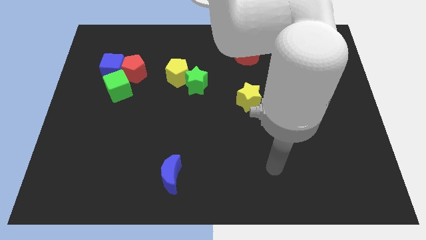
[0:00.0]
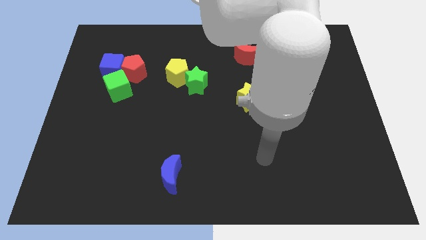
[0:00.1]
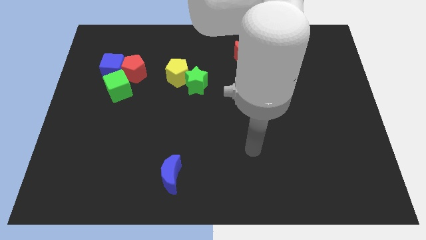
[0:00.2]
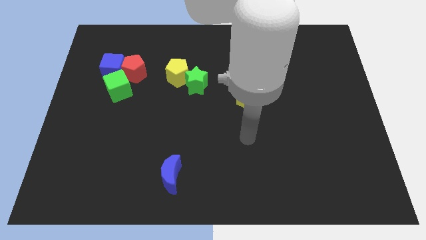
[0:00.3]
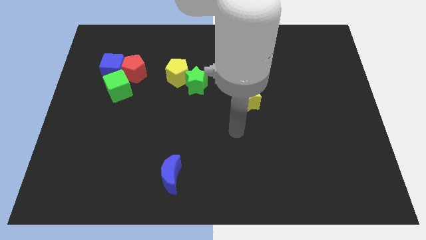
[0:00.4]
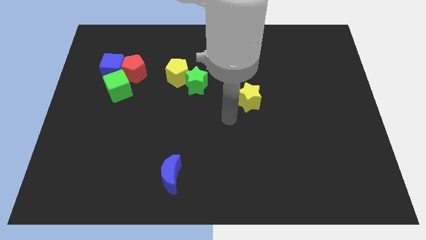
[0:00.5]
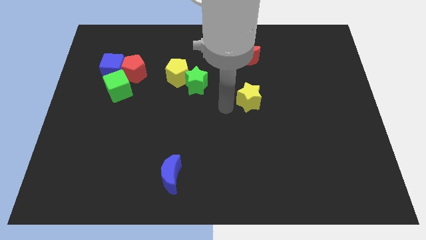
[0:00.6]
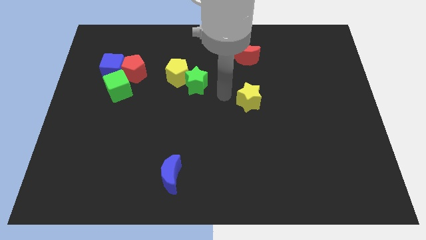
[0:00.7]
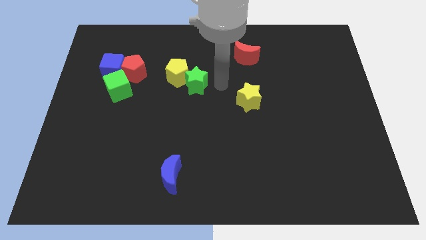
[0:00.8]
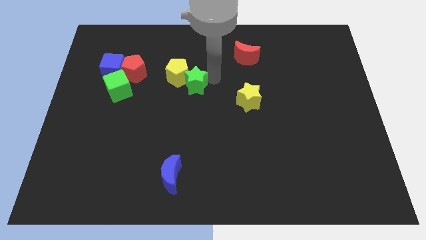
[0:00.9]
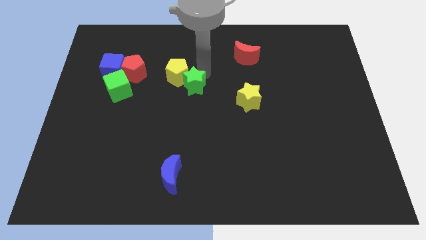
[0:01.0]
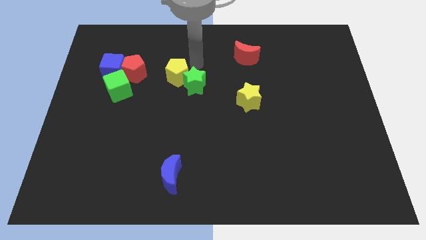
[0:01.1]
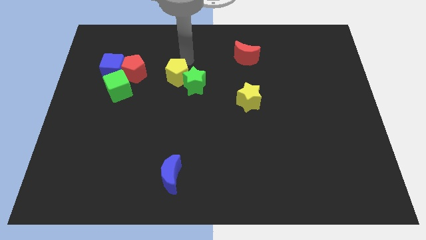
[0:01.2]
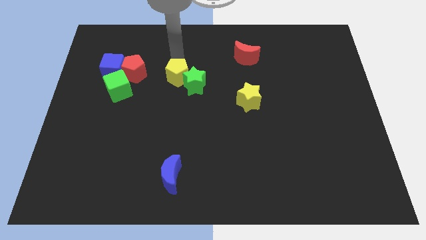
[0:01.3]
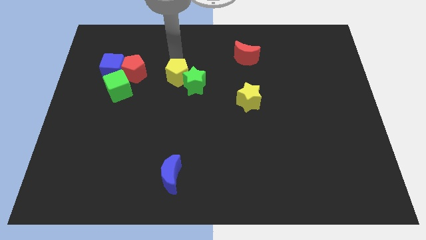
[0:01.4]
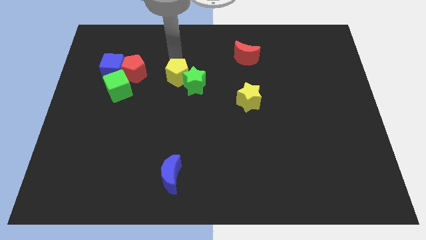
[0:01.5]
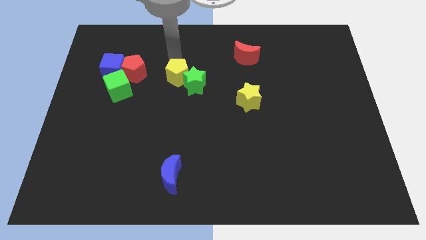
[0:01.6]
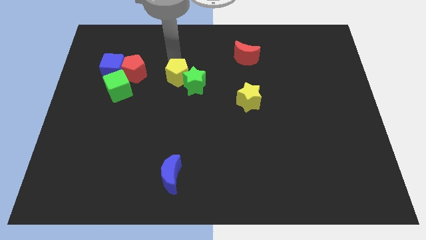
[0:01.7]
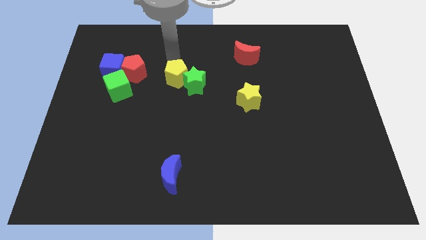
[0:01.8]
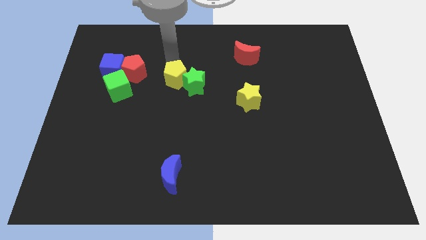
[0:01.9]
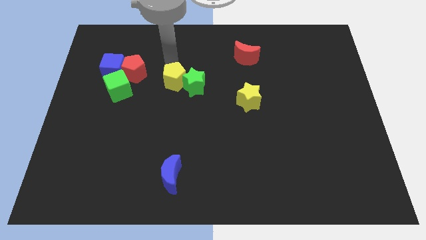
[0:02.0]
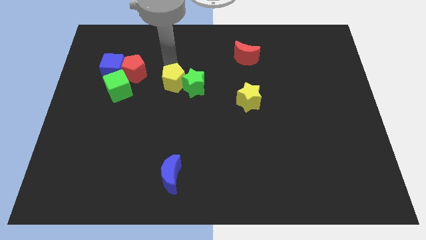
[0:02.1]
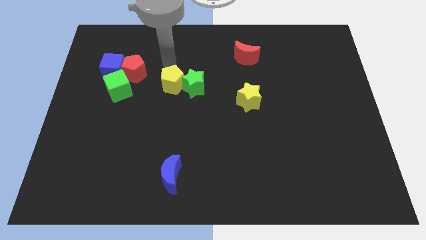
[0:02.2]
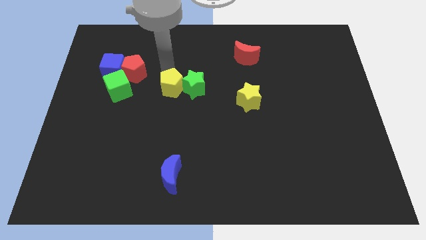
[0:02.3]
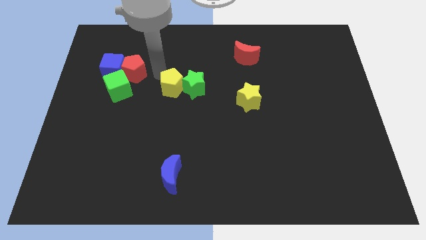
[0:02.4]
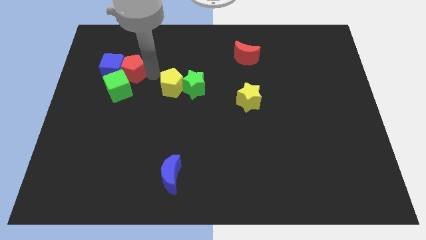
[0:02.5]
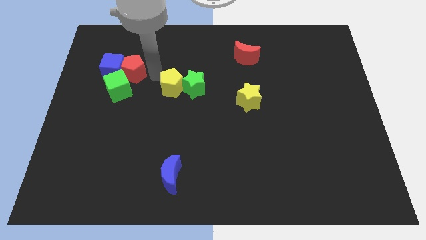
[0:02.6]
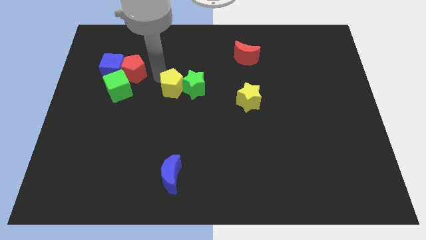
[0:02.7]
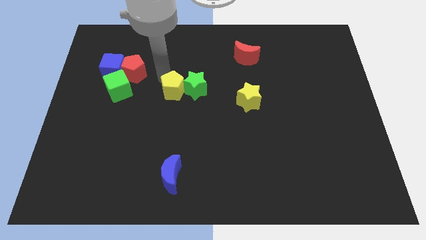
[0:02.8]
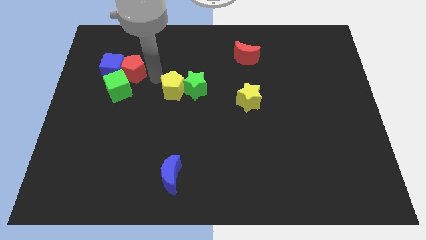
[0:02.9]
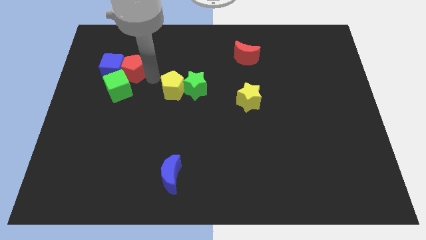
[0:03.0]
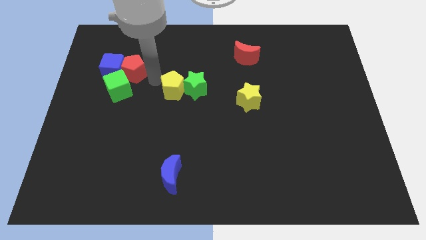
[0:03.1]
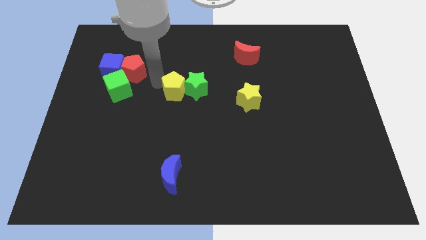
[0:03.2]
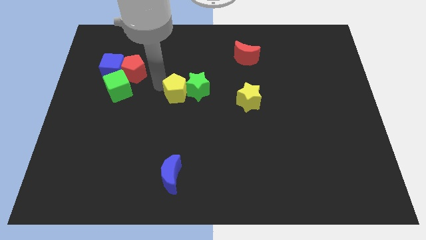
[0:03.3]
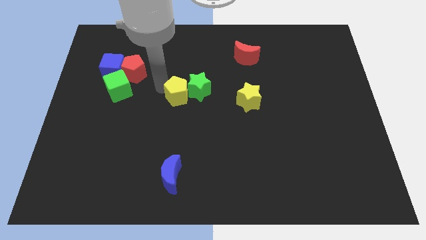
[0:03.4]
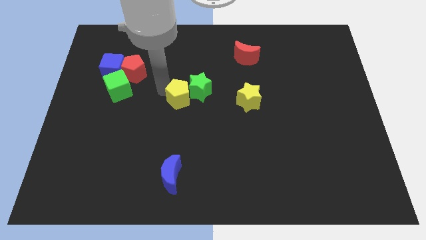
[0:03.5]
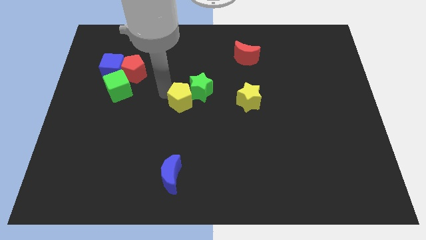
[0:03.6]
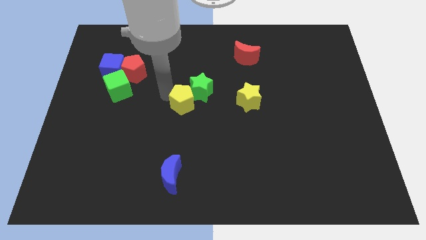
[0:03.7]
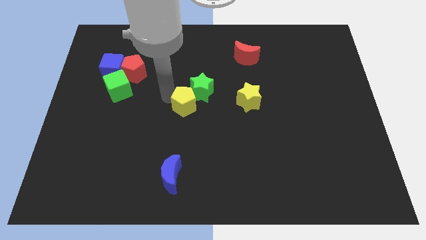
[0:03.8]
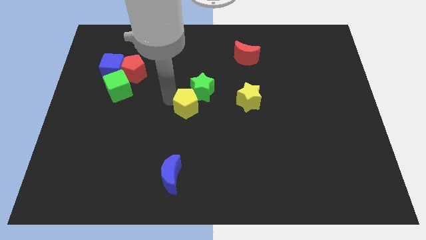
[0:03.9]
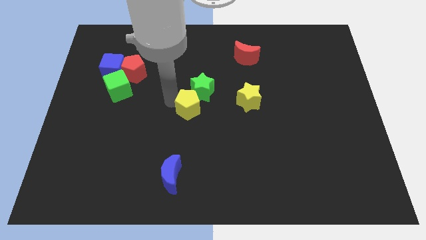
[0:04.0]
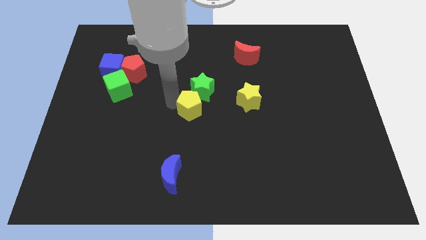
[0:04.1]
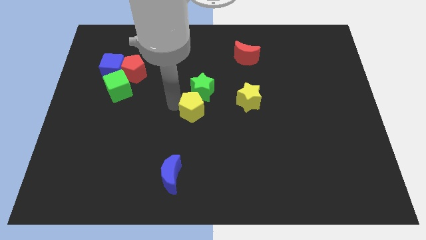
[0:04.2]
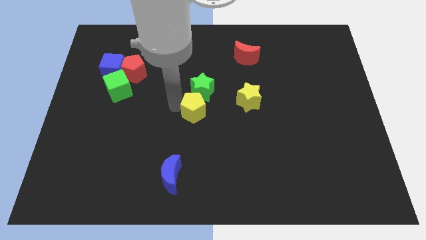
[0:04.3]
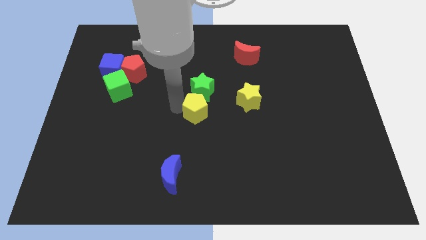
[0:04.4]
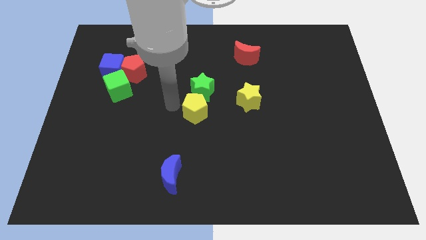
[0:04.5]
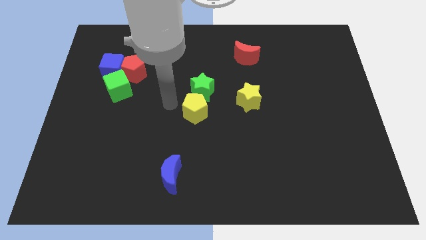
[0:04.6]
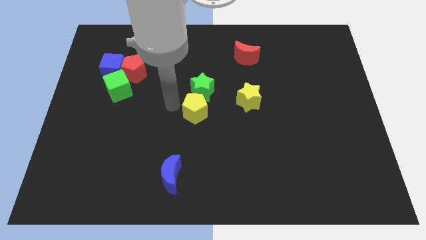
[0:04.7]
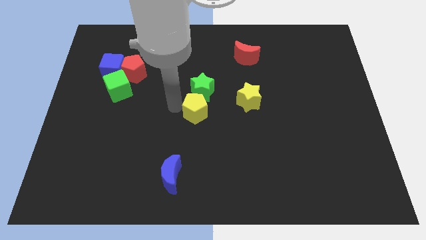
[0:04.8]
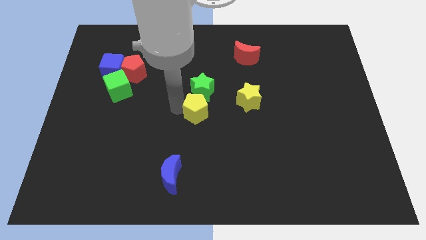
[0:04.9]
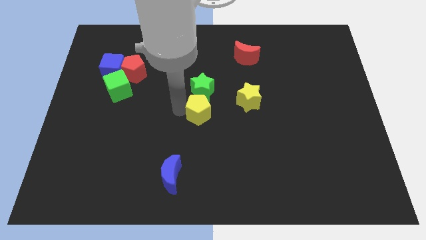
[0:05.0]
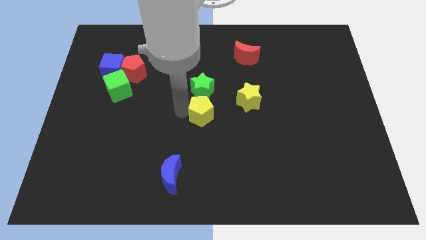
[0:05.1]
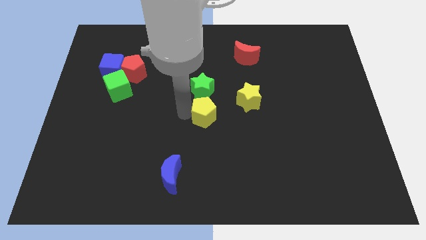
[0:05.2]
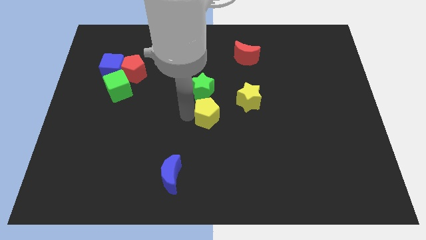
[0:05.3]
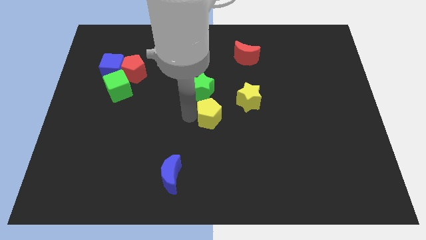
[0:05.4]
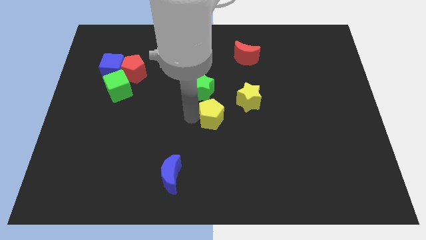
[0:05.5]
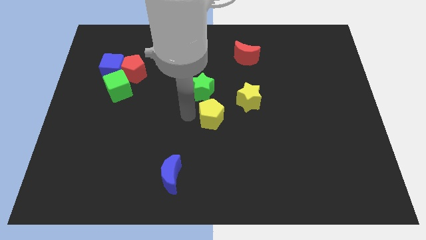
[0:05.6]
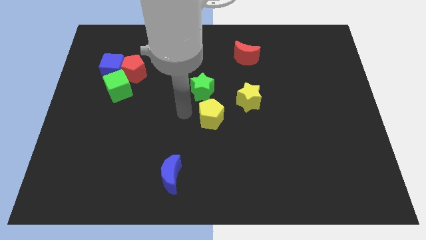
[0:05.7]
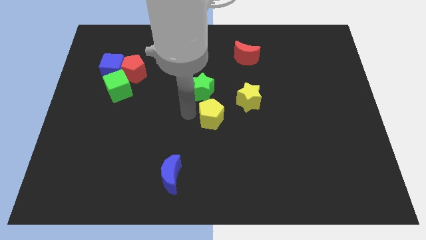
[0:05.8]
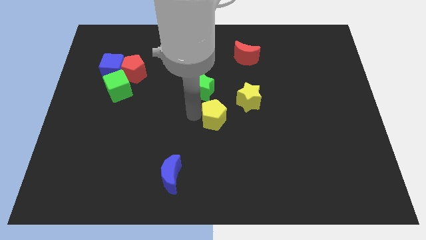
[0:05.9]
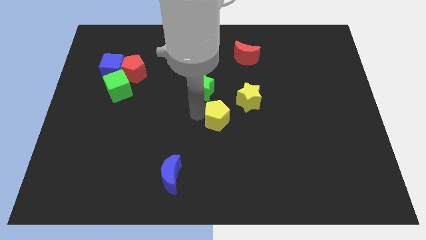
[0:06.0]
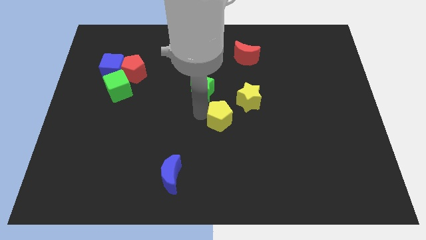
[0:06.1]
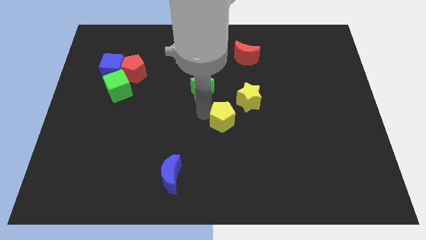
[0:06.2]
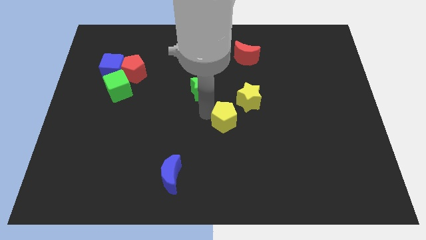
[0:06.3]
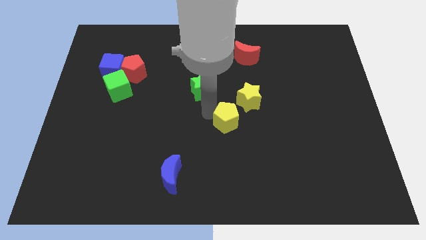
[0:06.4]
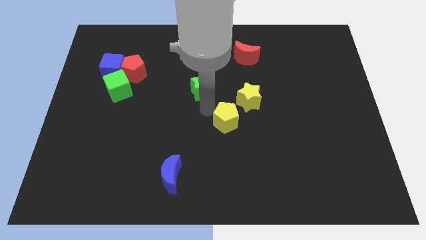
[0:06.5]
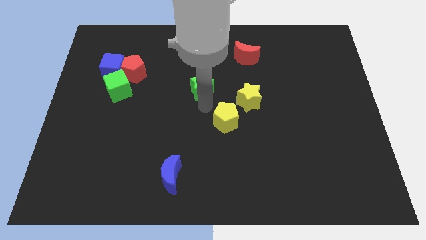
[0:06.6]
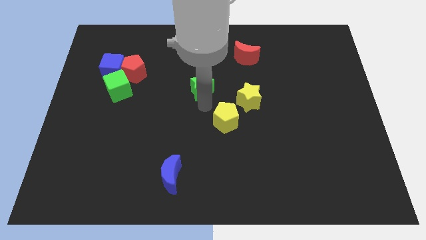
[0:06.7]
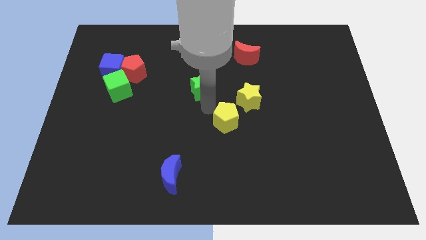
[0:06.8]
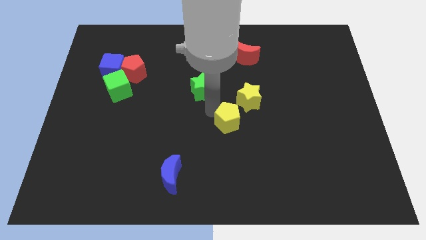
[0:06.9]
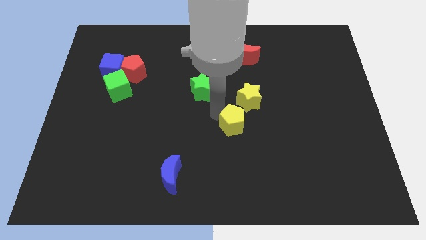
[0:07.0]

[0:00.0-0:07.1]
push the yellow pentagon diagonally downwards and to the right

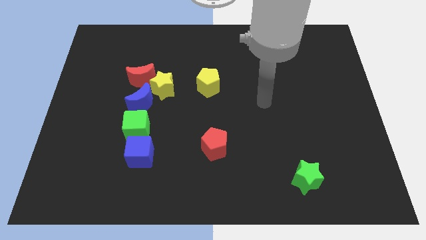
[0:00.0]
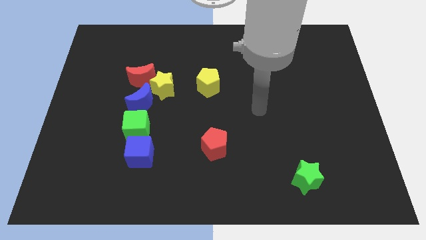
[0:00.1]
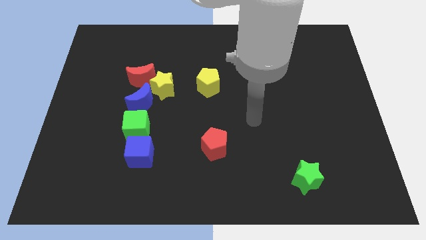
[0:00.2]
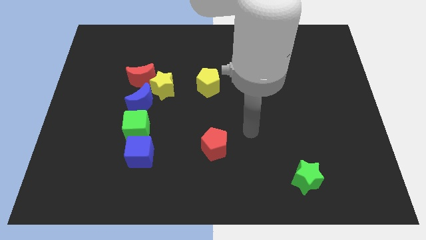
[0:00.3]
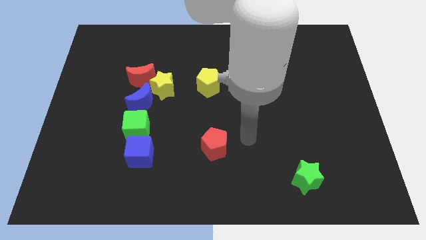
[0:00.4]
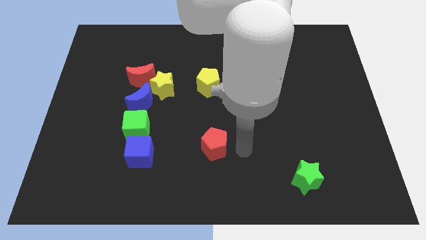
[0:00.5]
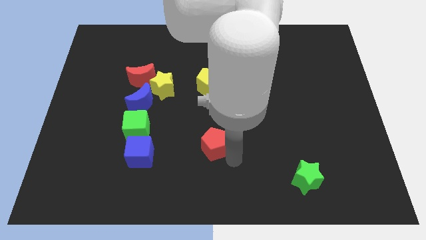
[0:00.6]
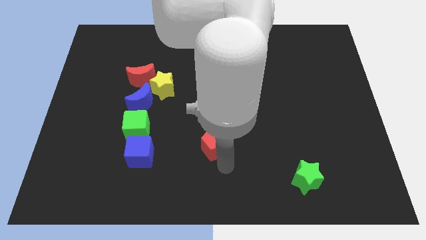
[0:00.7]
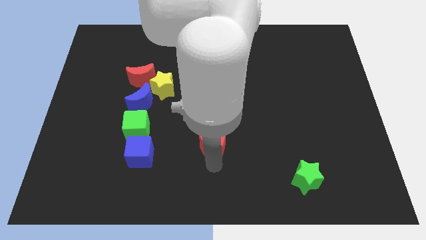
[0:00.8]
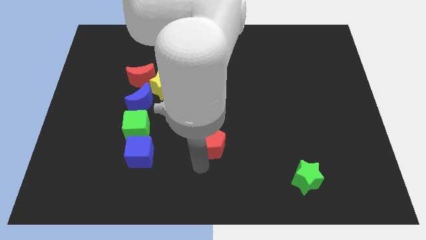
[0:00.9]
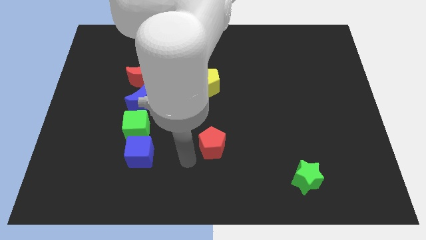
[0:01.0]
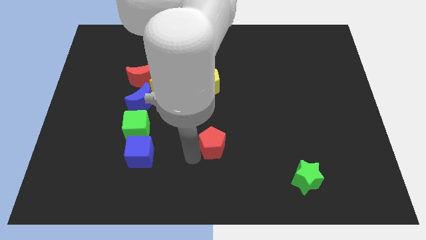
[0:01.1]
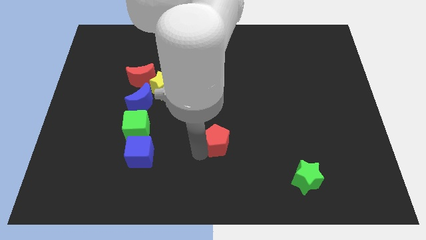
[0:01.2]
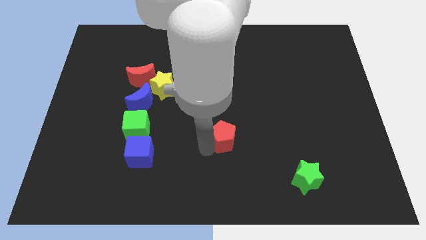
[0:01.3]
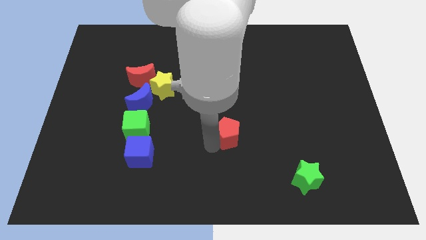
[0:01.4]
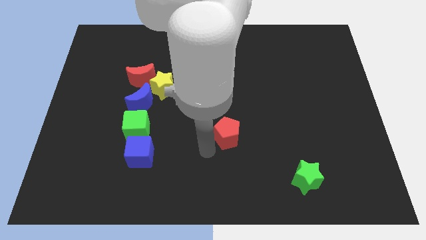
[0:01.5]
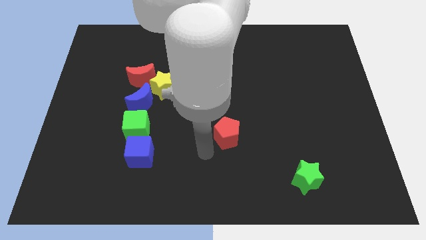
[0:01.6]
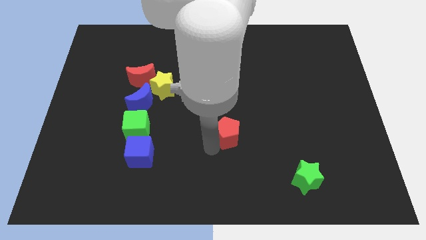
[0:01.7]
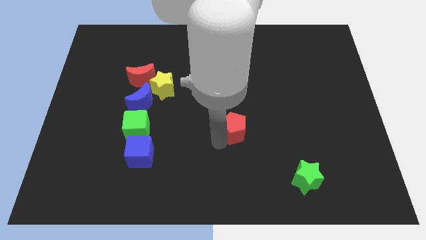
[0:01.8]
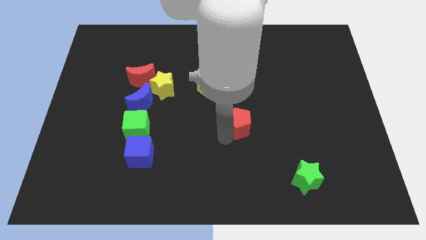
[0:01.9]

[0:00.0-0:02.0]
slightly move the red pentagon upwards and to the right diagonally
